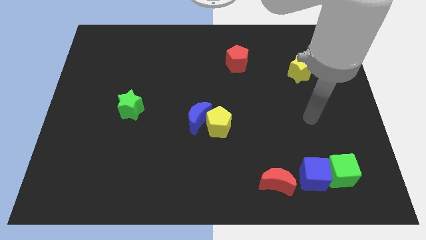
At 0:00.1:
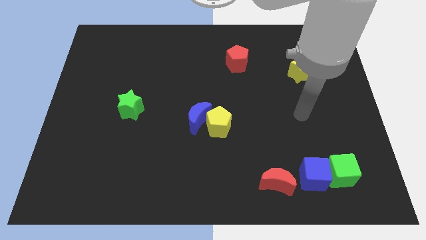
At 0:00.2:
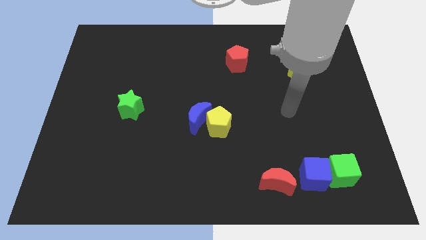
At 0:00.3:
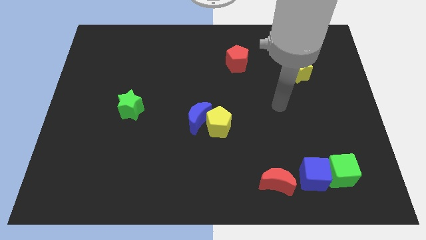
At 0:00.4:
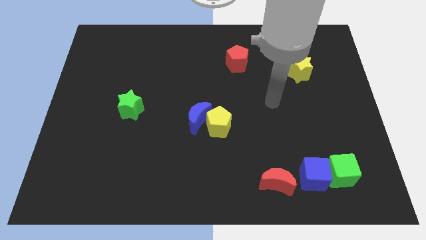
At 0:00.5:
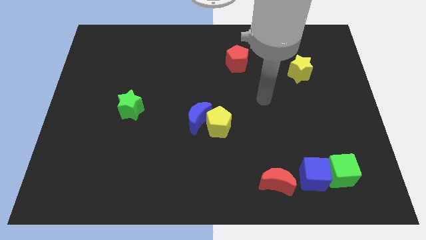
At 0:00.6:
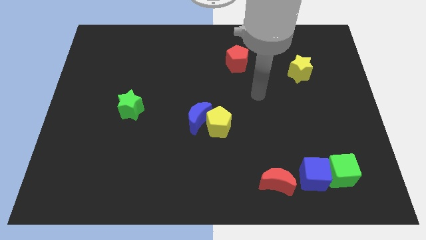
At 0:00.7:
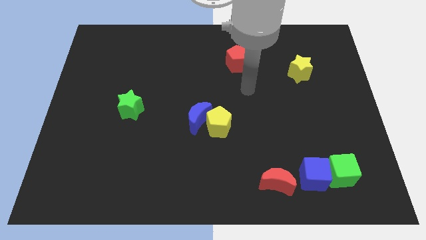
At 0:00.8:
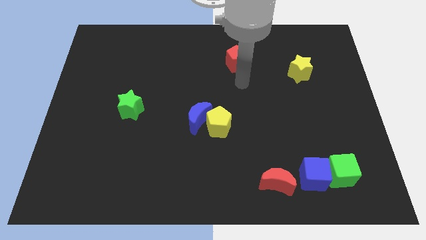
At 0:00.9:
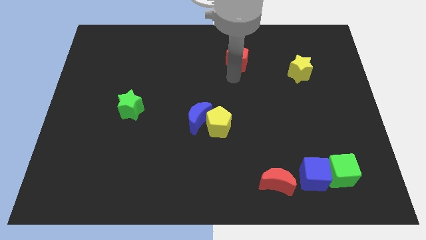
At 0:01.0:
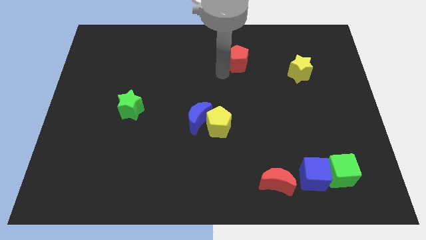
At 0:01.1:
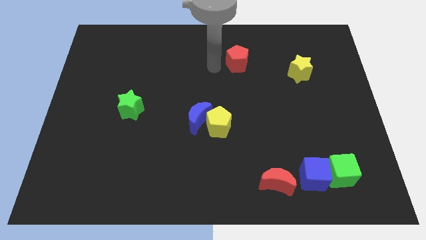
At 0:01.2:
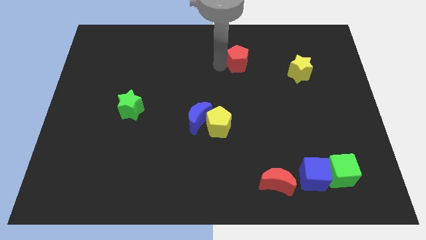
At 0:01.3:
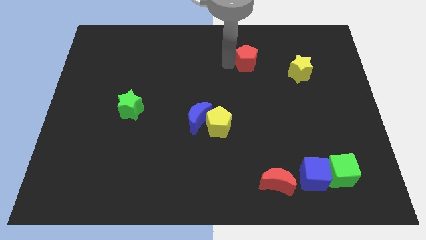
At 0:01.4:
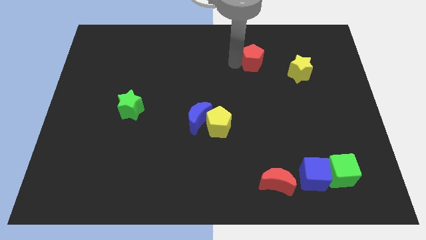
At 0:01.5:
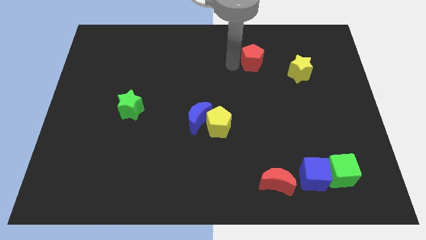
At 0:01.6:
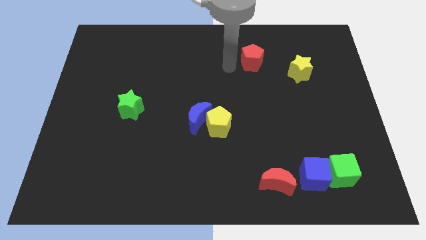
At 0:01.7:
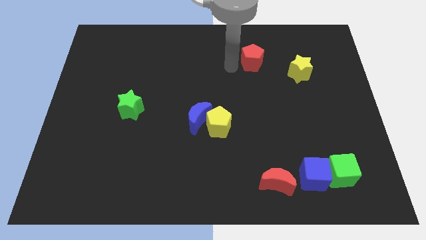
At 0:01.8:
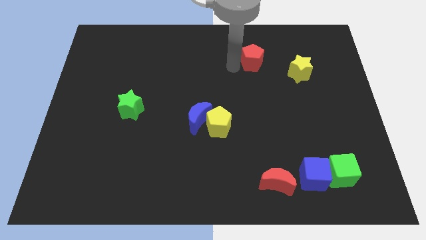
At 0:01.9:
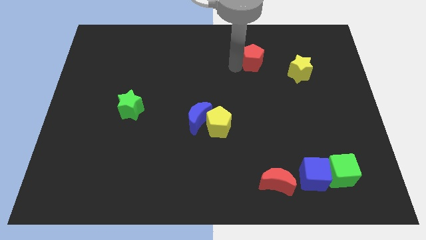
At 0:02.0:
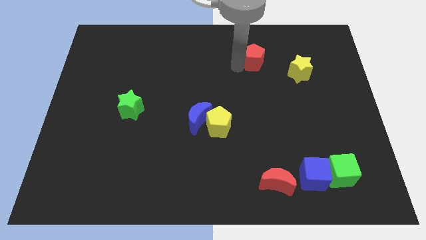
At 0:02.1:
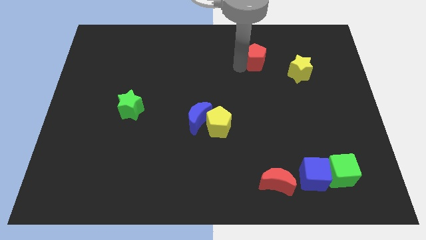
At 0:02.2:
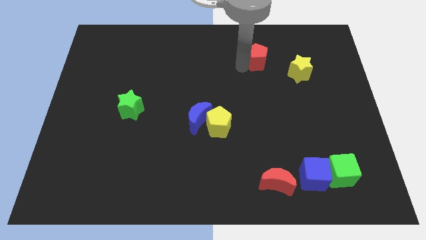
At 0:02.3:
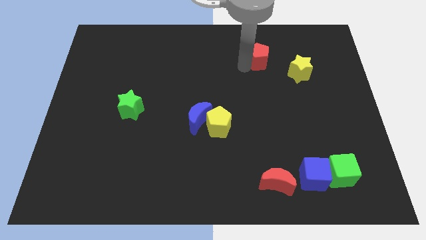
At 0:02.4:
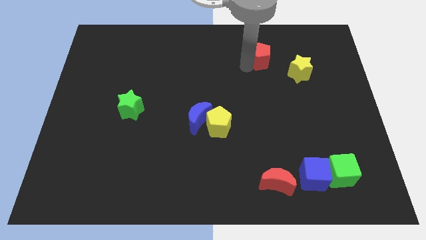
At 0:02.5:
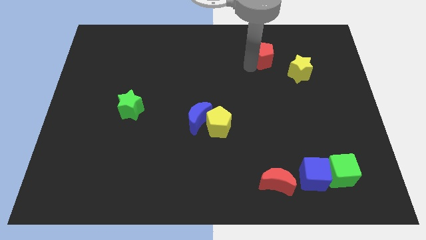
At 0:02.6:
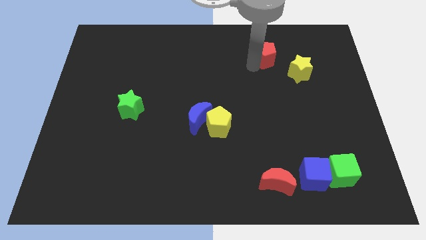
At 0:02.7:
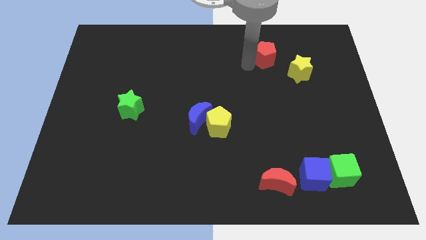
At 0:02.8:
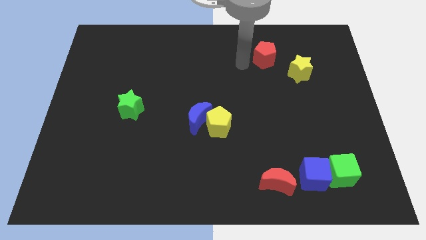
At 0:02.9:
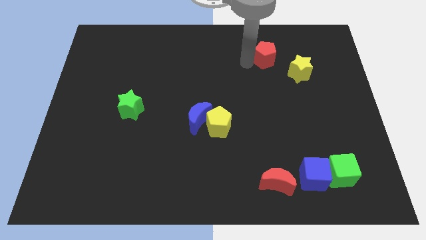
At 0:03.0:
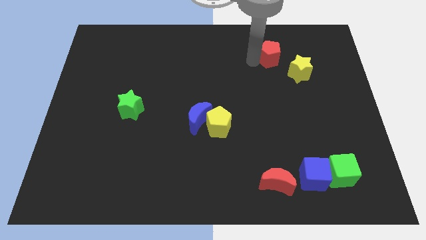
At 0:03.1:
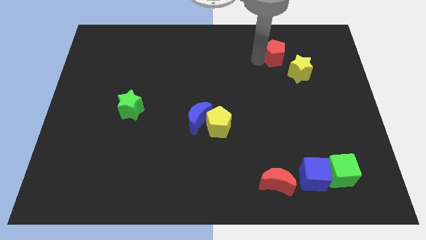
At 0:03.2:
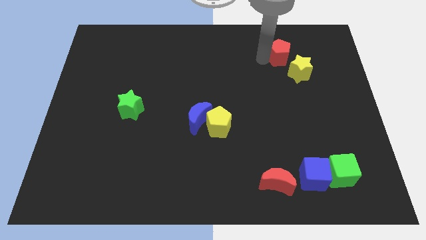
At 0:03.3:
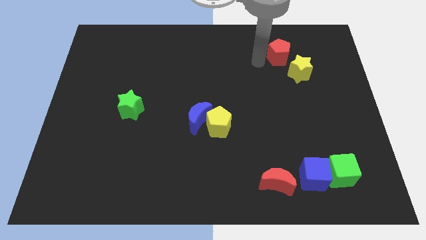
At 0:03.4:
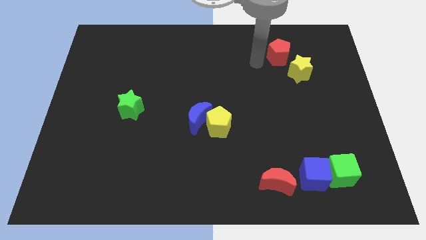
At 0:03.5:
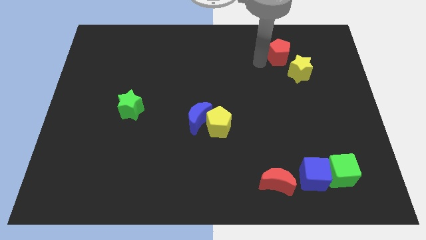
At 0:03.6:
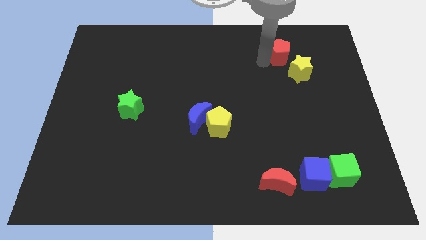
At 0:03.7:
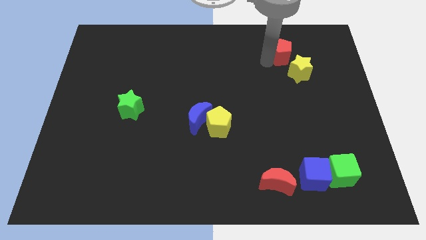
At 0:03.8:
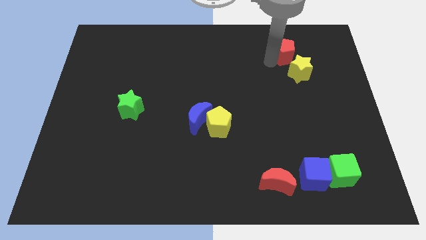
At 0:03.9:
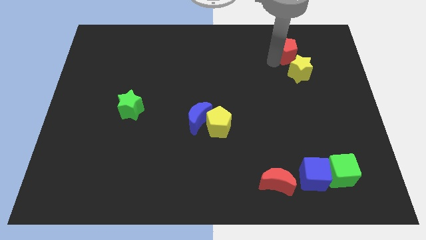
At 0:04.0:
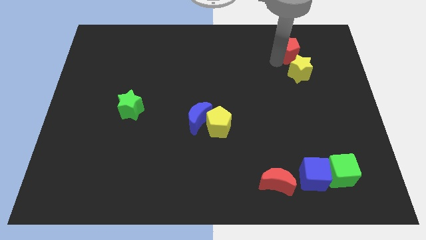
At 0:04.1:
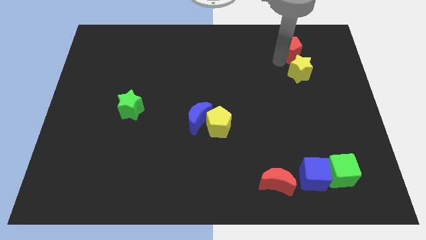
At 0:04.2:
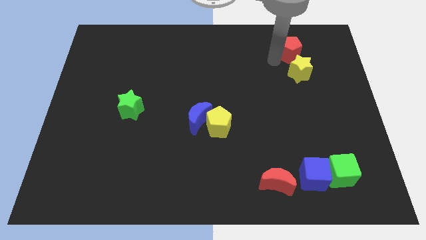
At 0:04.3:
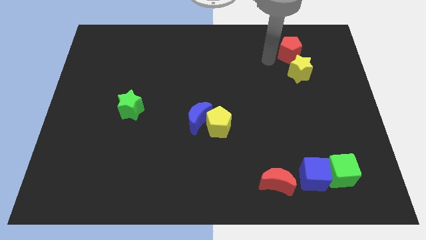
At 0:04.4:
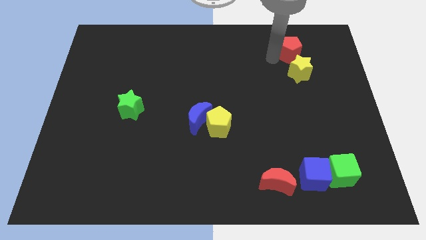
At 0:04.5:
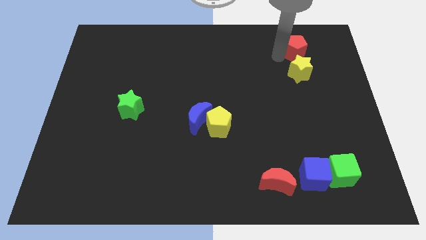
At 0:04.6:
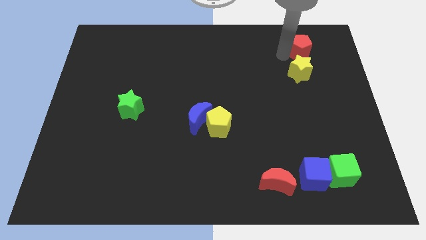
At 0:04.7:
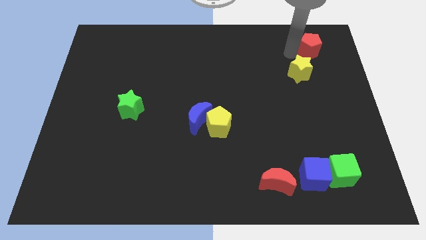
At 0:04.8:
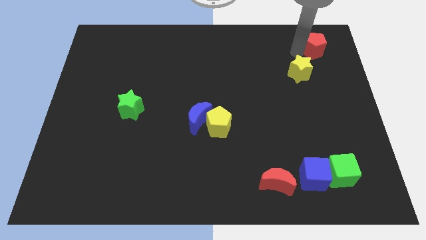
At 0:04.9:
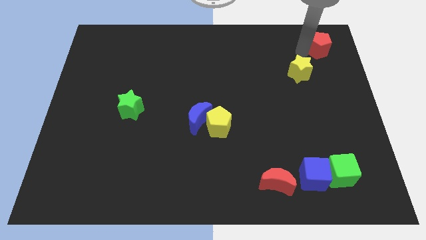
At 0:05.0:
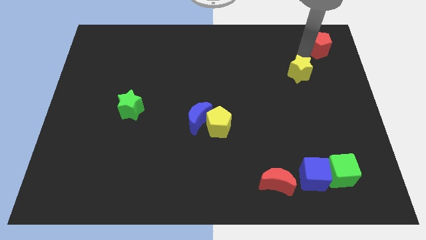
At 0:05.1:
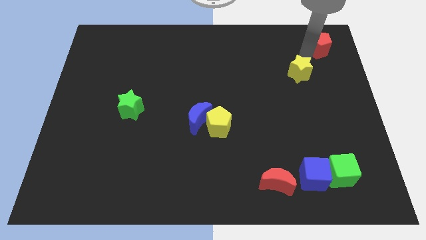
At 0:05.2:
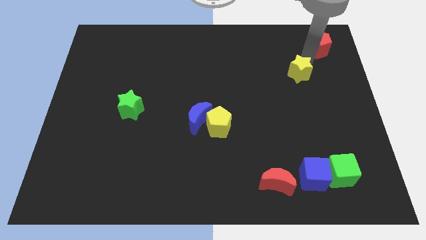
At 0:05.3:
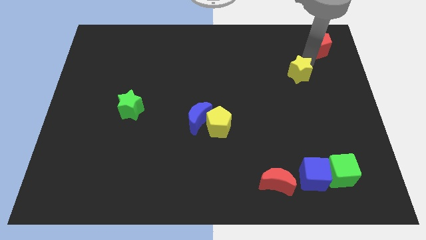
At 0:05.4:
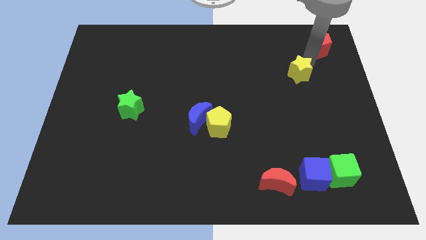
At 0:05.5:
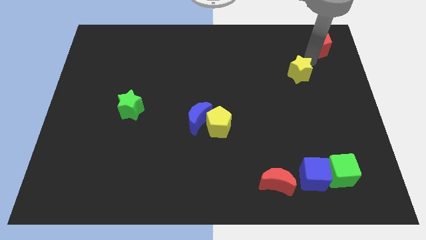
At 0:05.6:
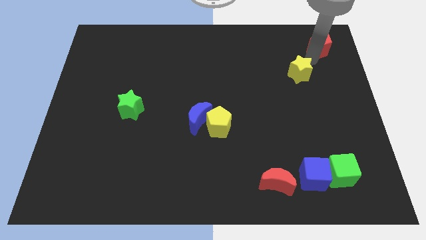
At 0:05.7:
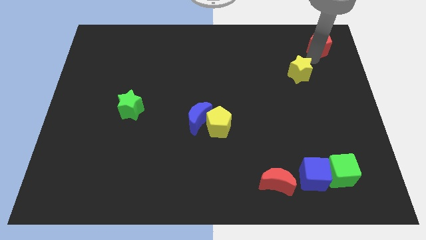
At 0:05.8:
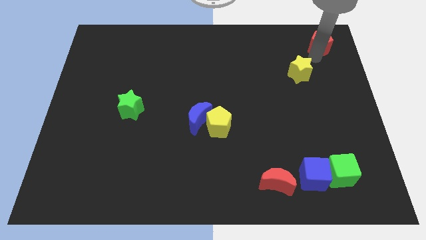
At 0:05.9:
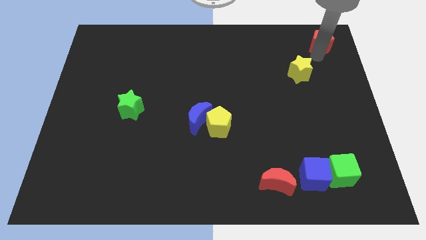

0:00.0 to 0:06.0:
move the red pentagon to the top right corner

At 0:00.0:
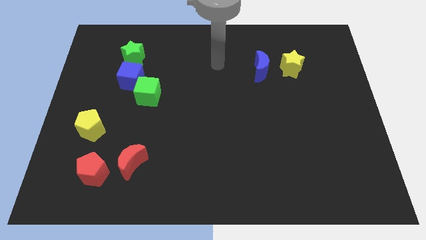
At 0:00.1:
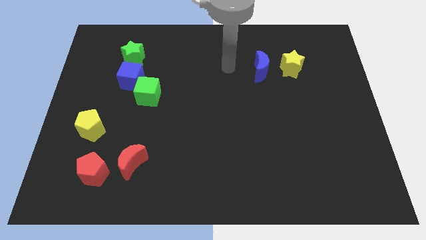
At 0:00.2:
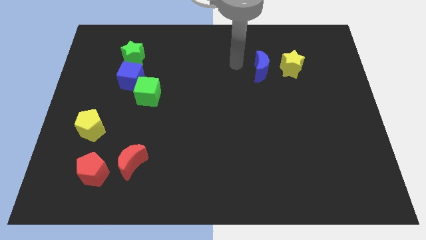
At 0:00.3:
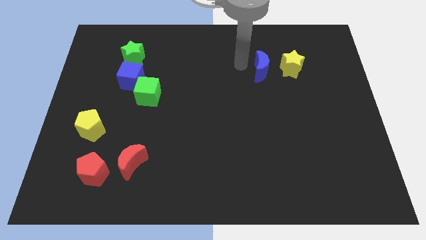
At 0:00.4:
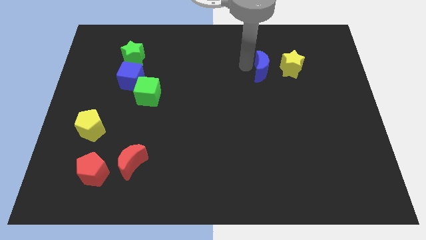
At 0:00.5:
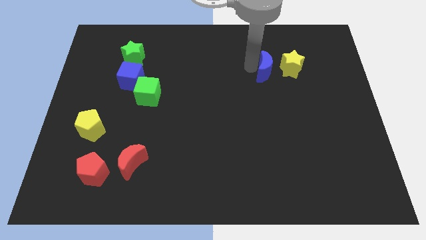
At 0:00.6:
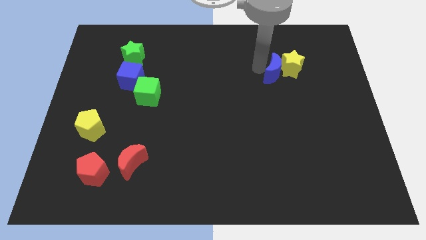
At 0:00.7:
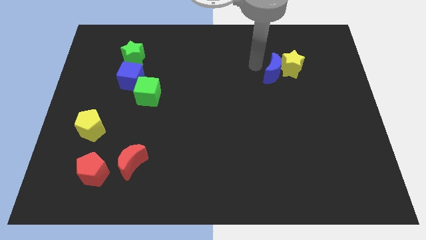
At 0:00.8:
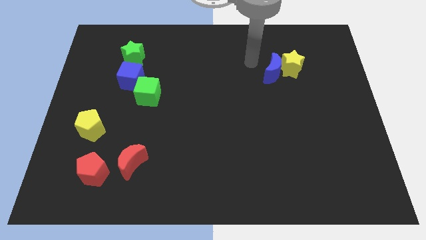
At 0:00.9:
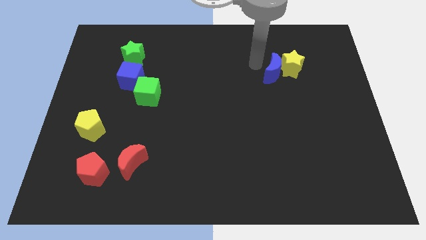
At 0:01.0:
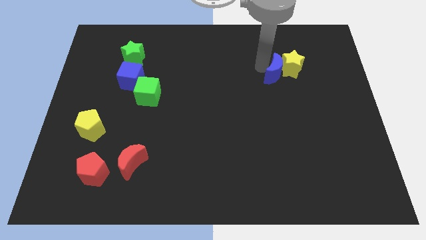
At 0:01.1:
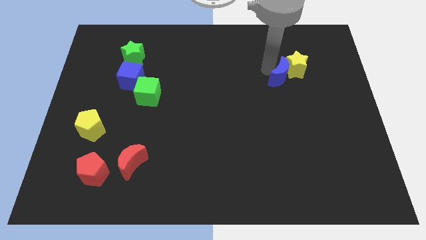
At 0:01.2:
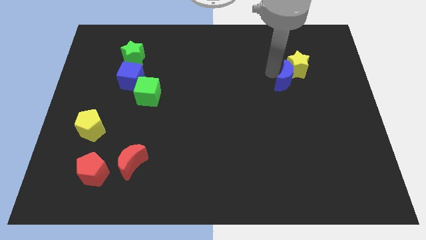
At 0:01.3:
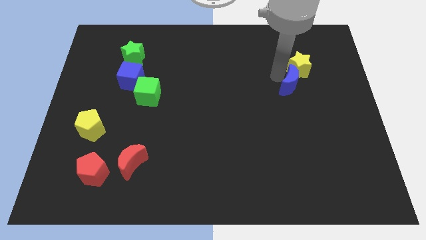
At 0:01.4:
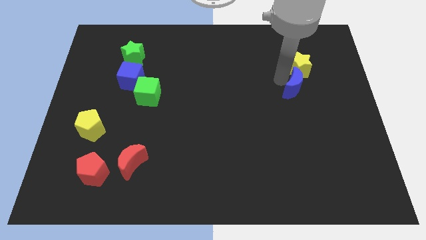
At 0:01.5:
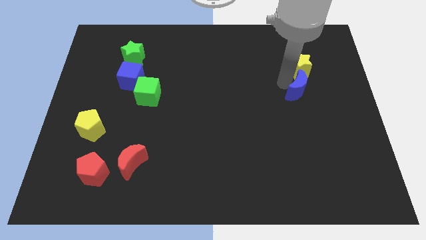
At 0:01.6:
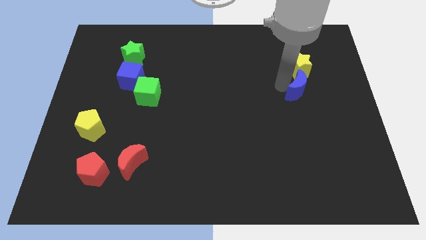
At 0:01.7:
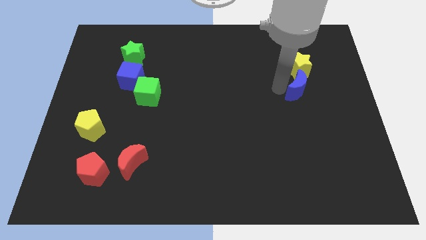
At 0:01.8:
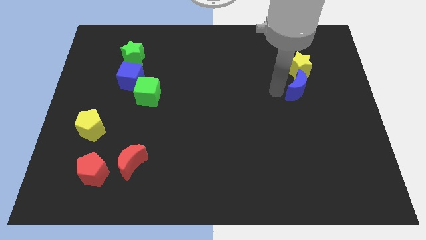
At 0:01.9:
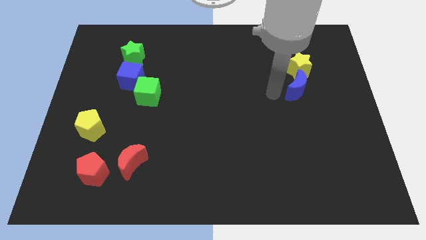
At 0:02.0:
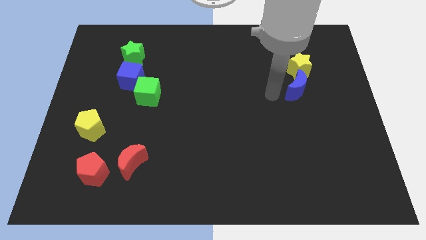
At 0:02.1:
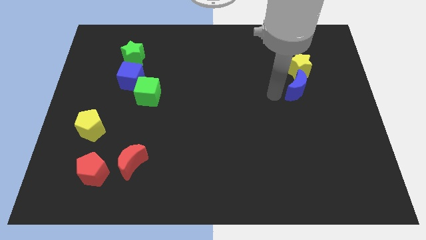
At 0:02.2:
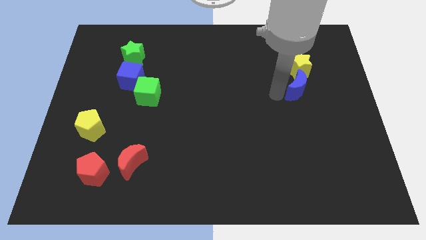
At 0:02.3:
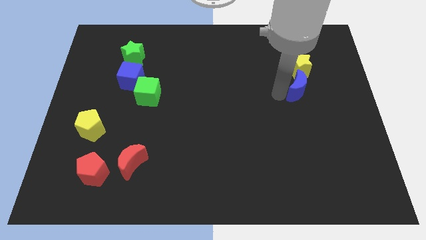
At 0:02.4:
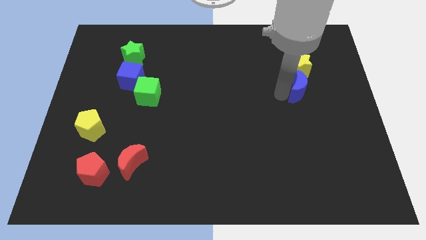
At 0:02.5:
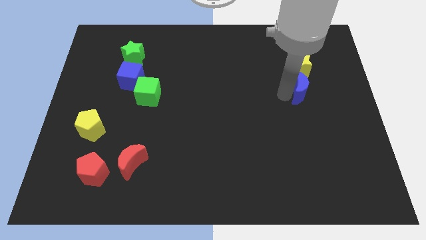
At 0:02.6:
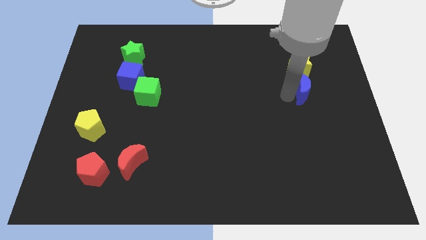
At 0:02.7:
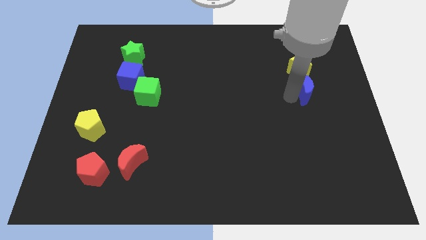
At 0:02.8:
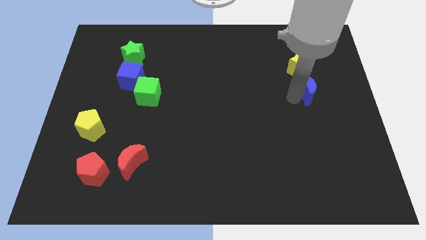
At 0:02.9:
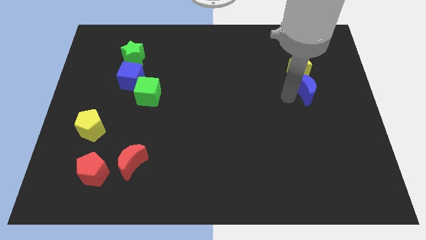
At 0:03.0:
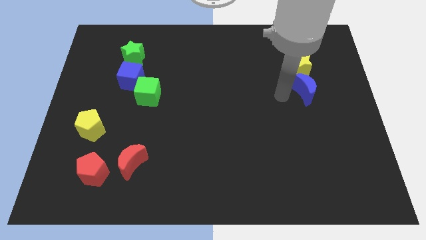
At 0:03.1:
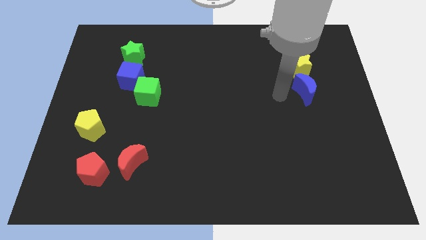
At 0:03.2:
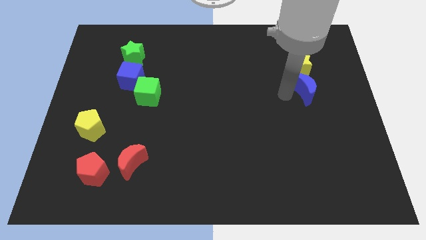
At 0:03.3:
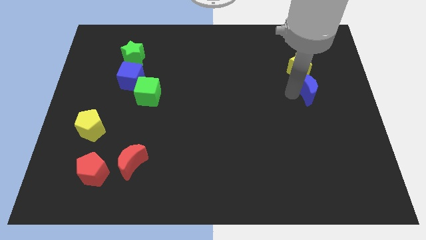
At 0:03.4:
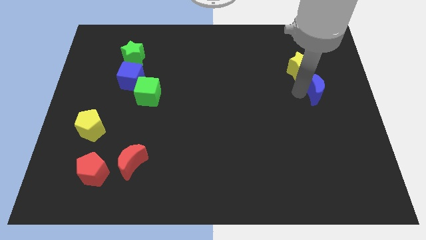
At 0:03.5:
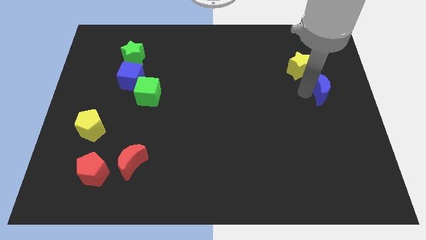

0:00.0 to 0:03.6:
slide the blue moon to the center right
